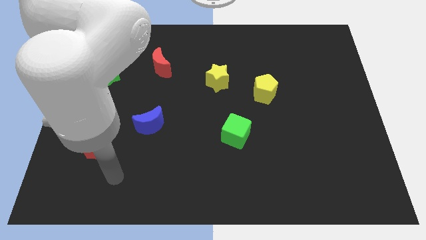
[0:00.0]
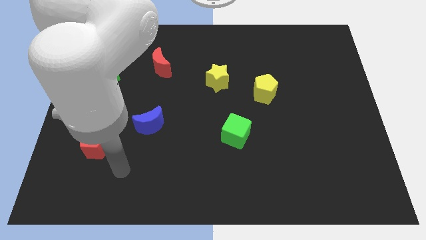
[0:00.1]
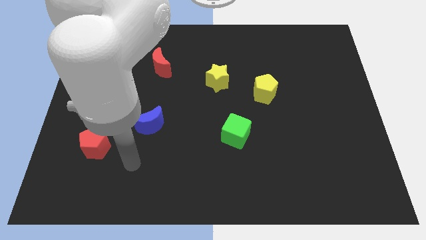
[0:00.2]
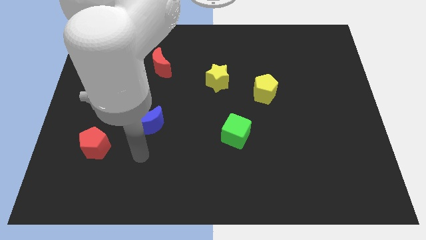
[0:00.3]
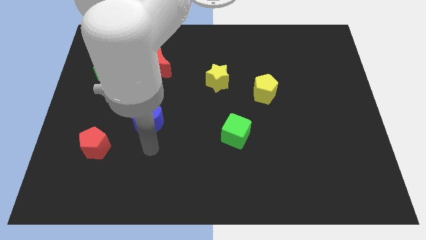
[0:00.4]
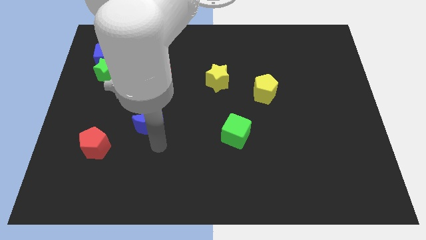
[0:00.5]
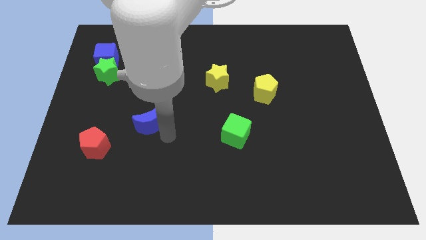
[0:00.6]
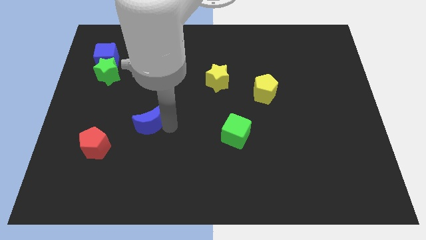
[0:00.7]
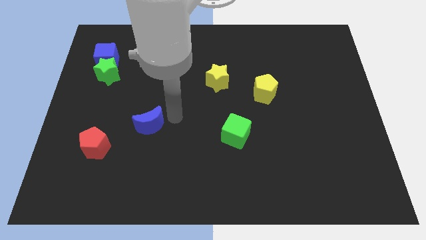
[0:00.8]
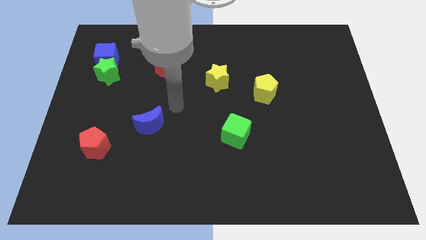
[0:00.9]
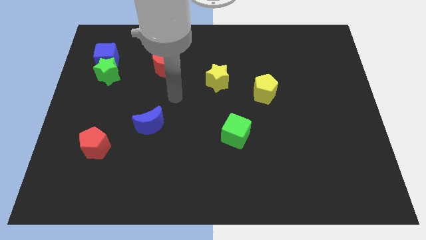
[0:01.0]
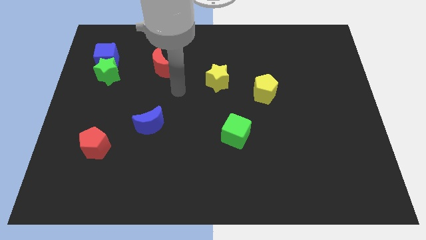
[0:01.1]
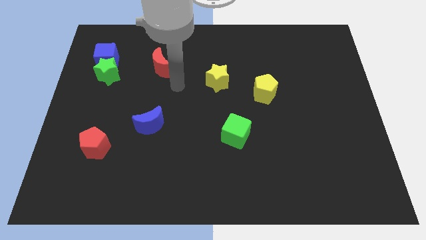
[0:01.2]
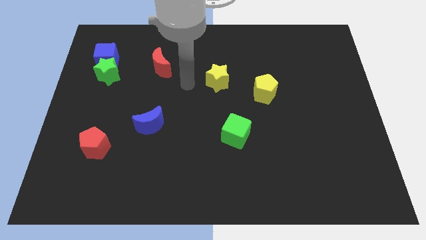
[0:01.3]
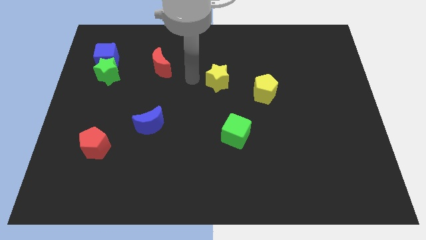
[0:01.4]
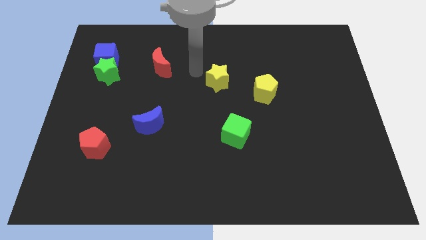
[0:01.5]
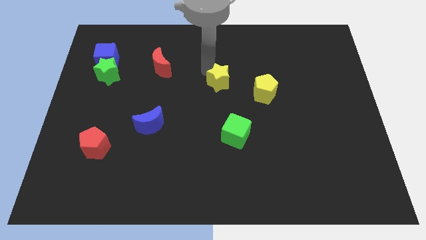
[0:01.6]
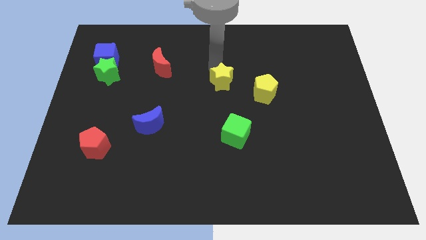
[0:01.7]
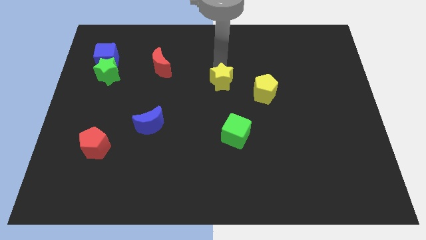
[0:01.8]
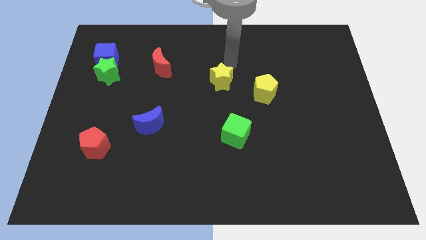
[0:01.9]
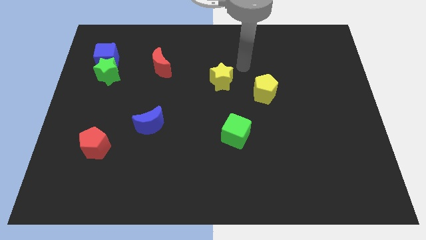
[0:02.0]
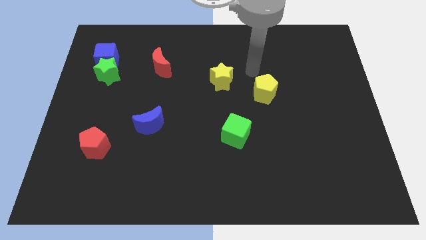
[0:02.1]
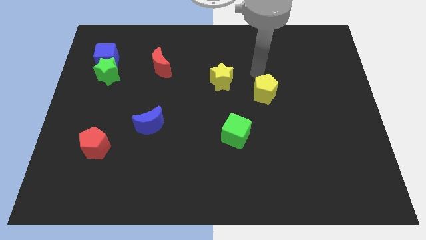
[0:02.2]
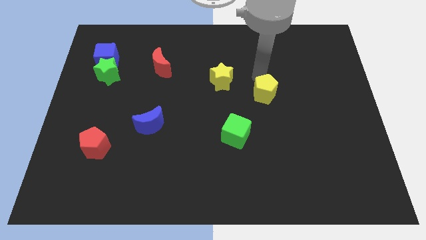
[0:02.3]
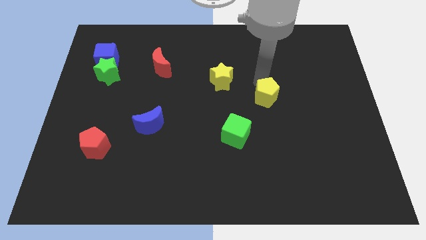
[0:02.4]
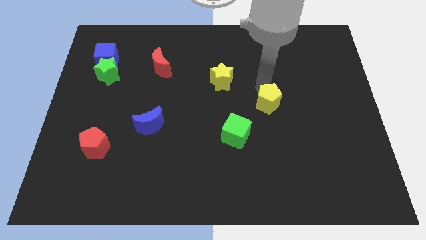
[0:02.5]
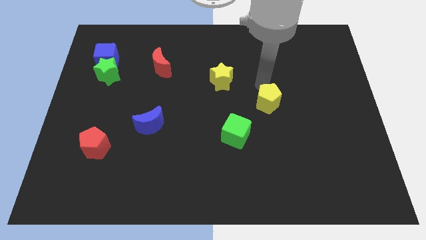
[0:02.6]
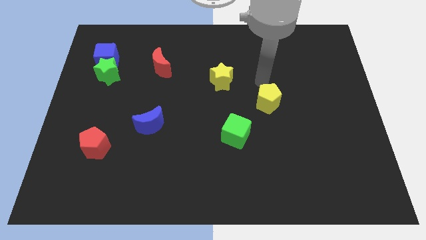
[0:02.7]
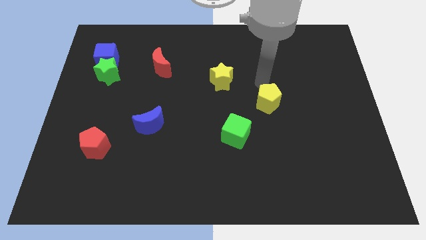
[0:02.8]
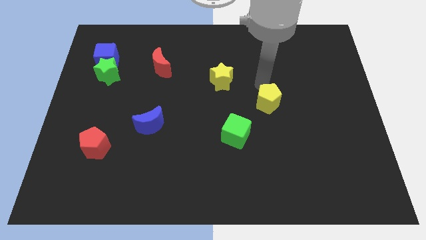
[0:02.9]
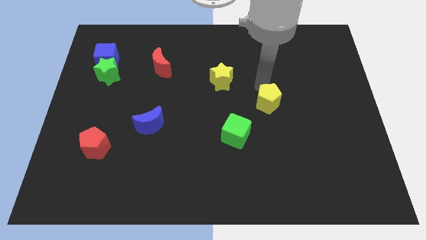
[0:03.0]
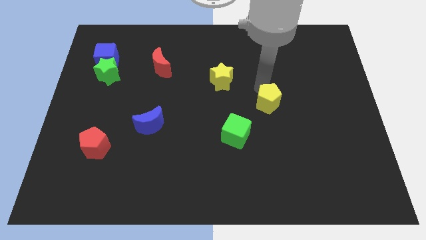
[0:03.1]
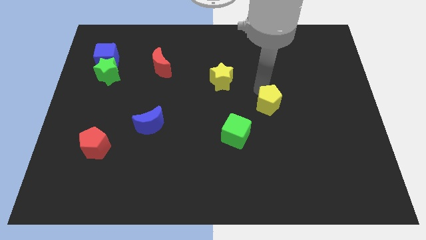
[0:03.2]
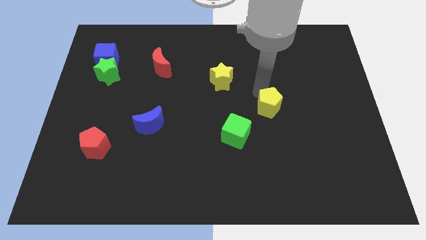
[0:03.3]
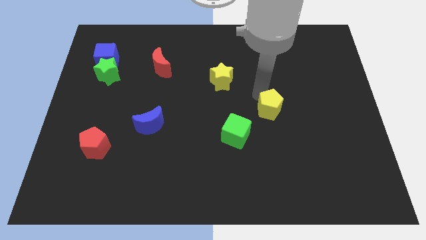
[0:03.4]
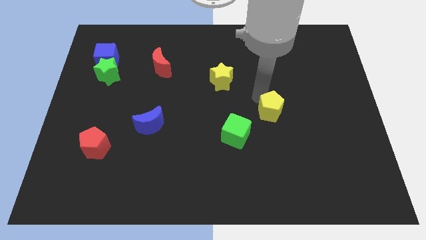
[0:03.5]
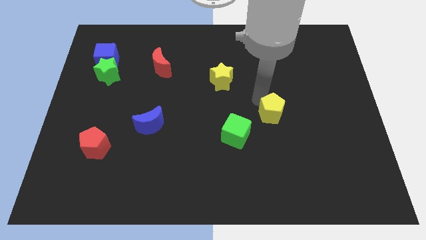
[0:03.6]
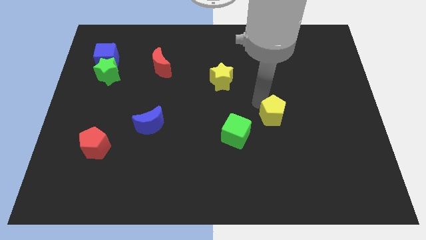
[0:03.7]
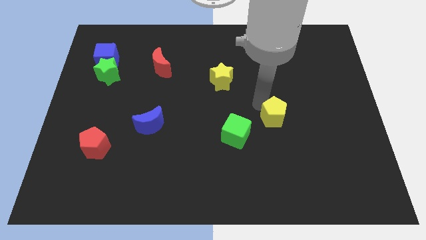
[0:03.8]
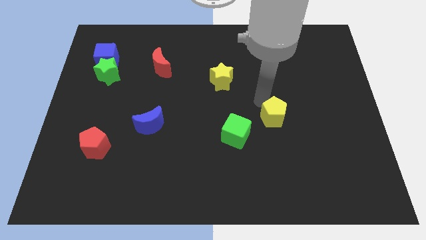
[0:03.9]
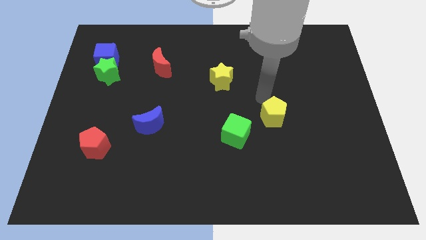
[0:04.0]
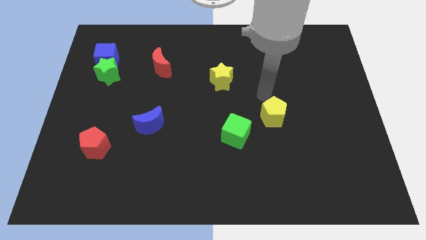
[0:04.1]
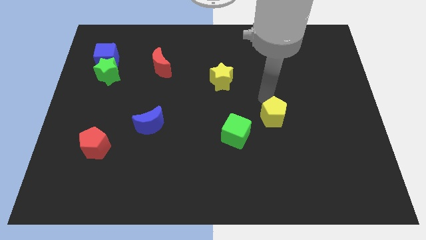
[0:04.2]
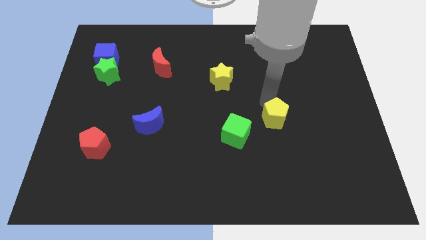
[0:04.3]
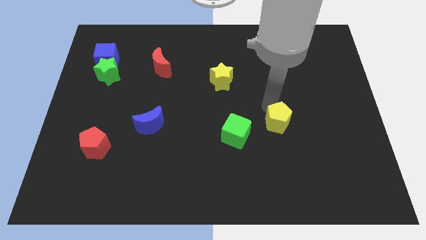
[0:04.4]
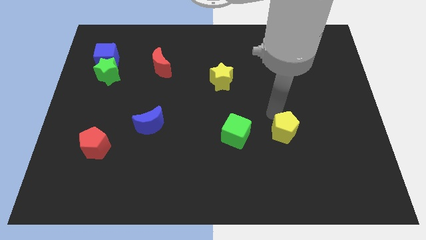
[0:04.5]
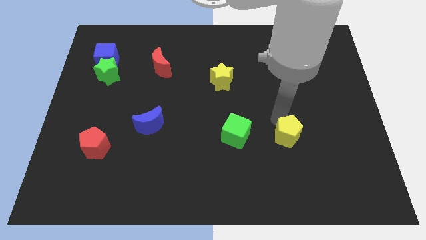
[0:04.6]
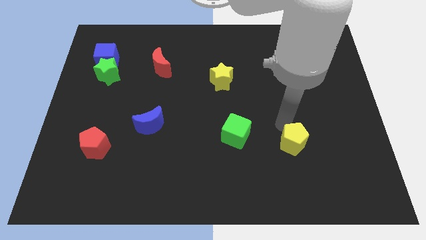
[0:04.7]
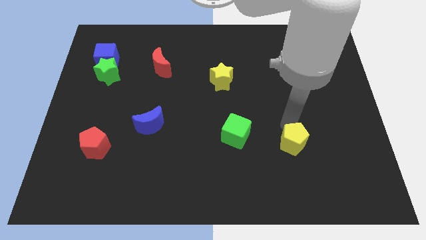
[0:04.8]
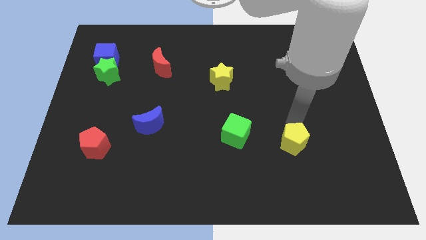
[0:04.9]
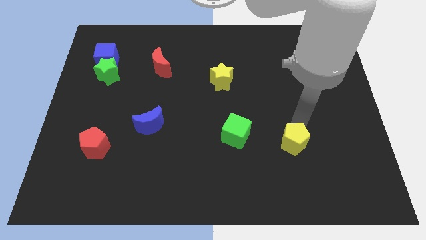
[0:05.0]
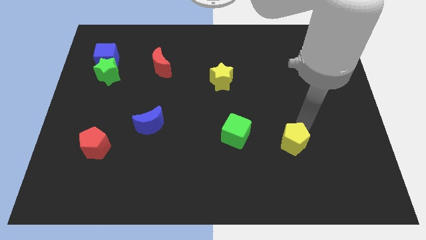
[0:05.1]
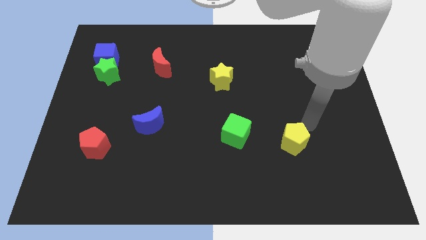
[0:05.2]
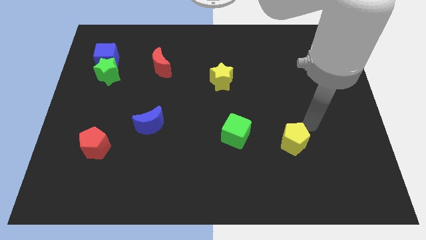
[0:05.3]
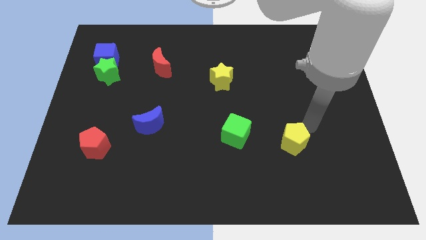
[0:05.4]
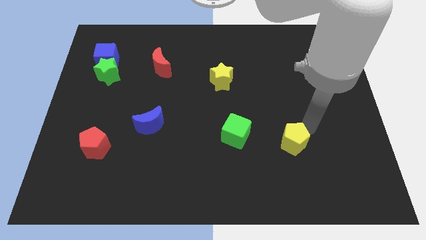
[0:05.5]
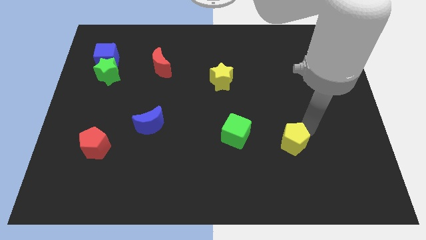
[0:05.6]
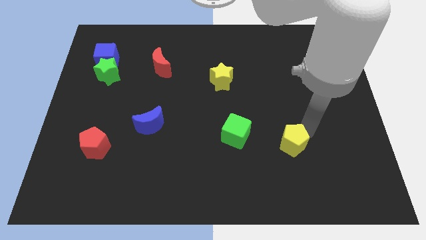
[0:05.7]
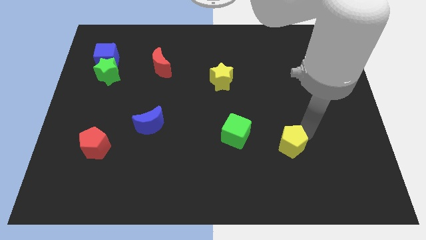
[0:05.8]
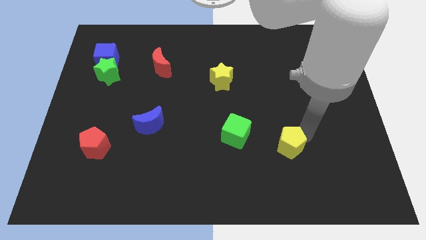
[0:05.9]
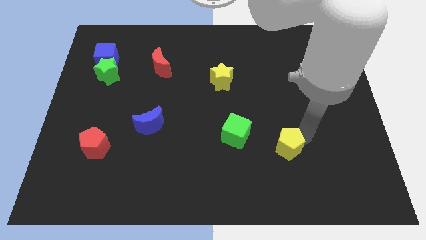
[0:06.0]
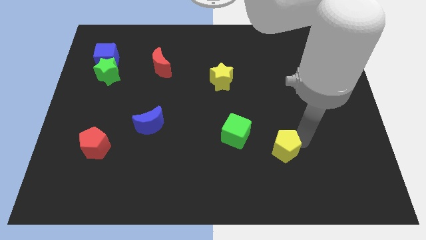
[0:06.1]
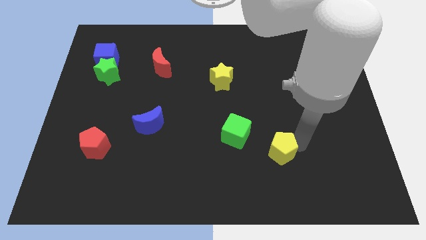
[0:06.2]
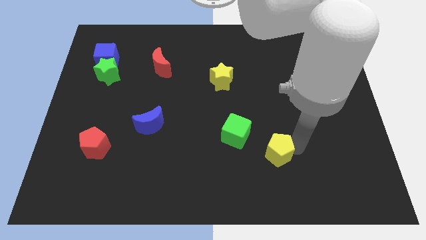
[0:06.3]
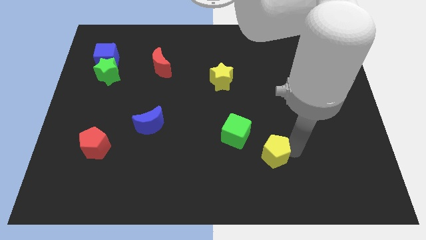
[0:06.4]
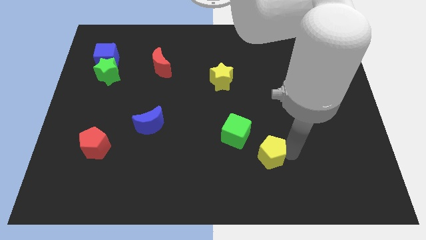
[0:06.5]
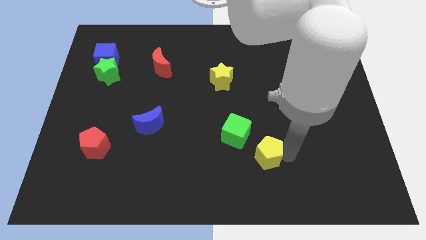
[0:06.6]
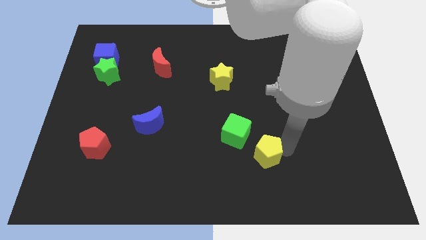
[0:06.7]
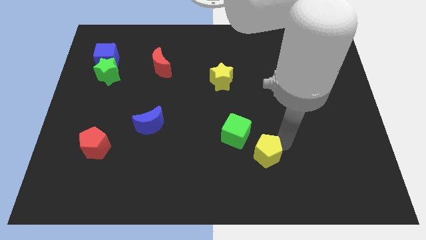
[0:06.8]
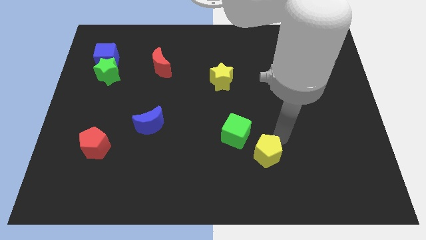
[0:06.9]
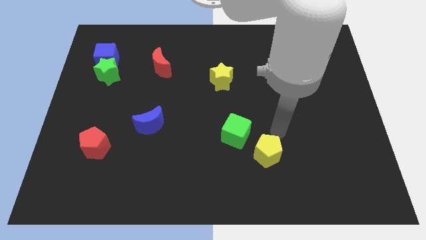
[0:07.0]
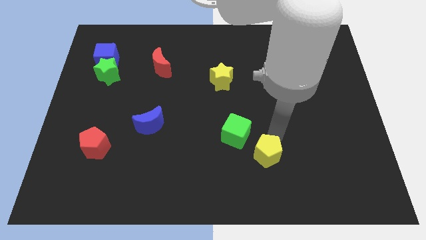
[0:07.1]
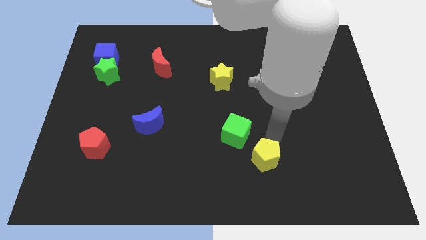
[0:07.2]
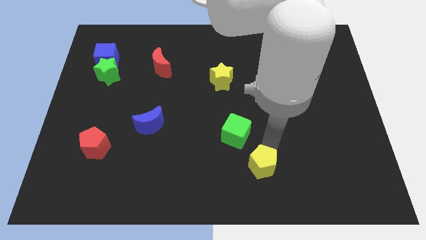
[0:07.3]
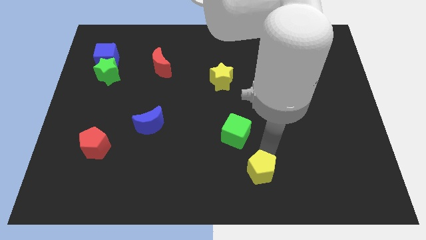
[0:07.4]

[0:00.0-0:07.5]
push the yellow pentagon to the bottom
